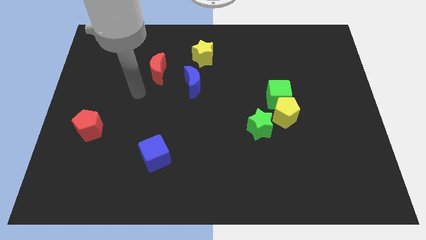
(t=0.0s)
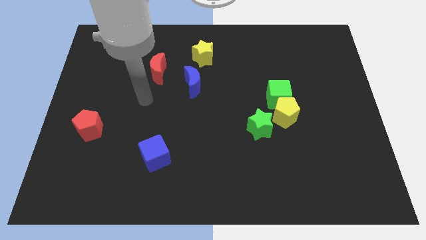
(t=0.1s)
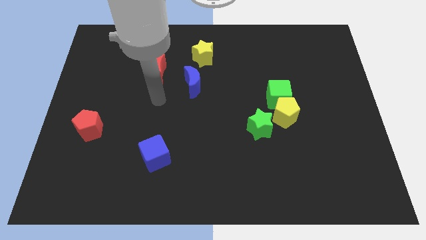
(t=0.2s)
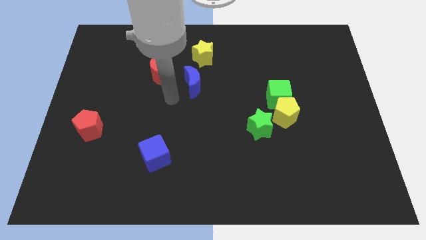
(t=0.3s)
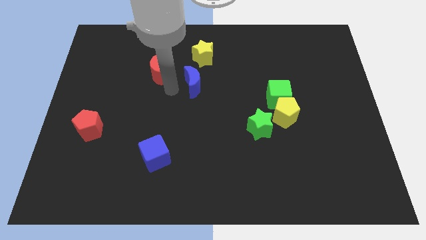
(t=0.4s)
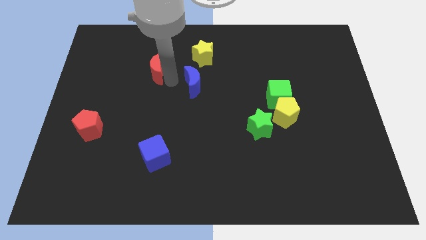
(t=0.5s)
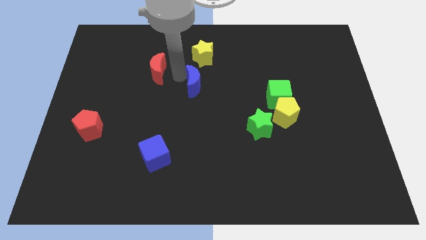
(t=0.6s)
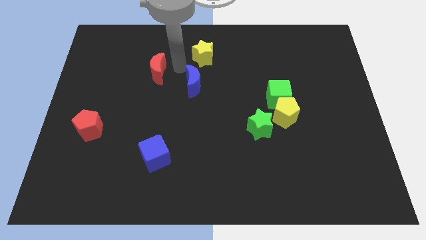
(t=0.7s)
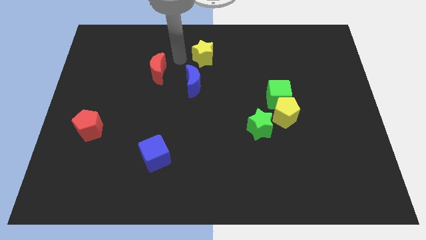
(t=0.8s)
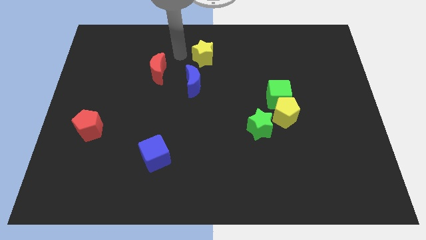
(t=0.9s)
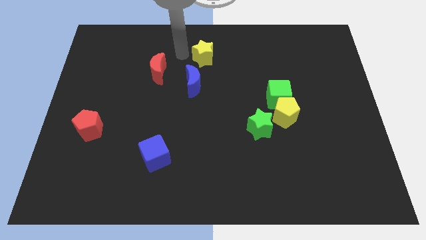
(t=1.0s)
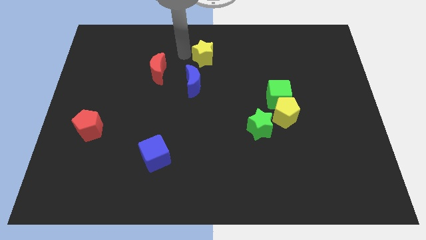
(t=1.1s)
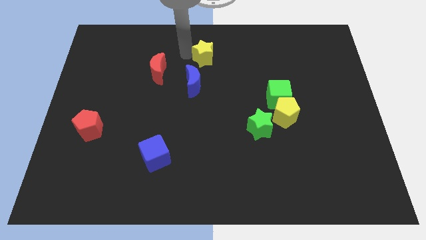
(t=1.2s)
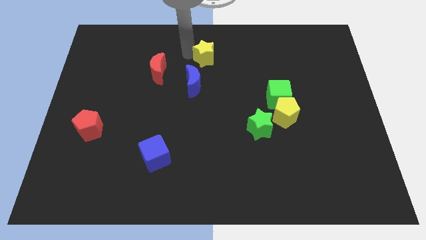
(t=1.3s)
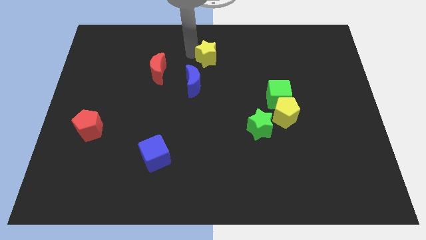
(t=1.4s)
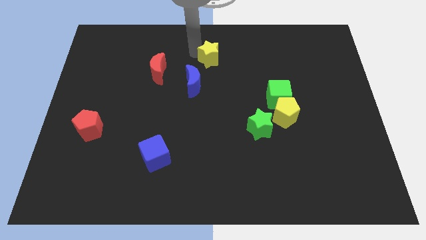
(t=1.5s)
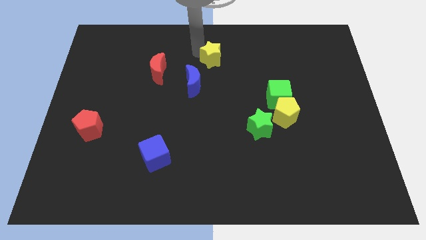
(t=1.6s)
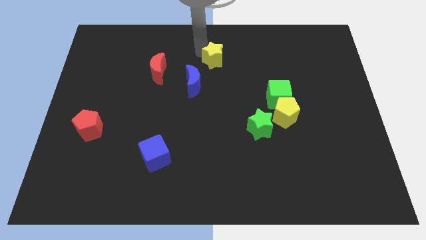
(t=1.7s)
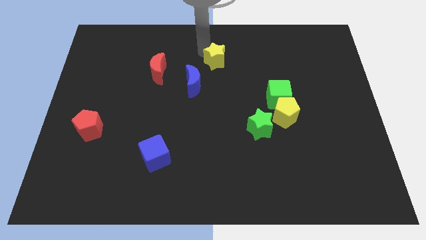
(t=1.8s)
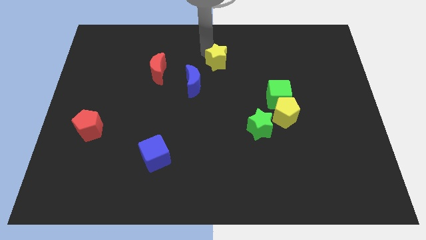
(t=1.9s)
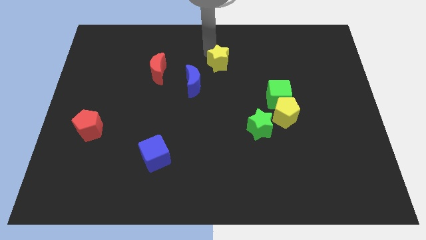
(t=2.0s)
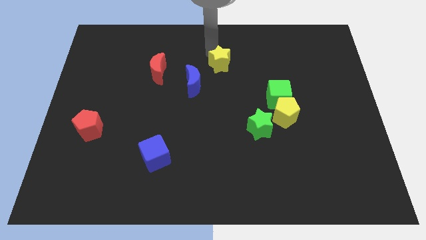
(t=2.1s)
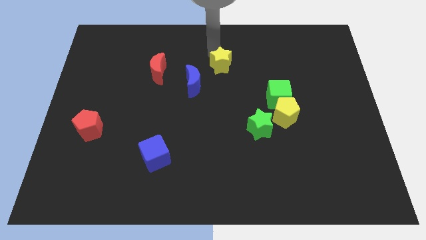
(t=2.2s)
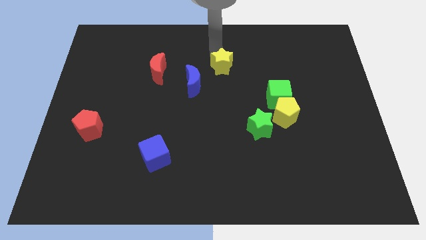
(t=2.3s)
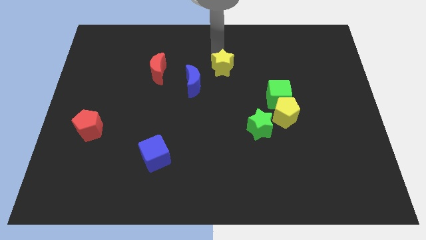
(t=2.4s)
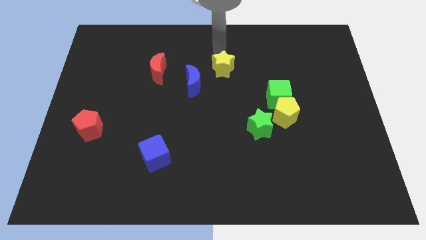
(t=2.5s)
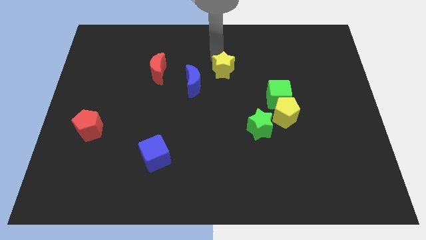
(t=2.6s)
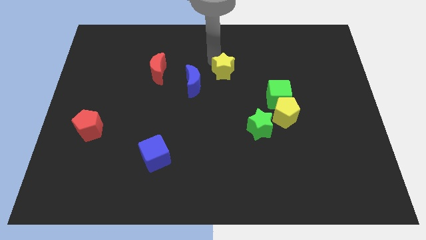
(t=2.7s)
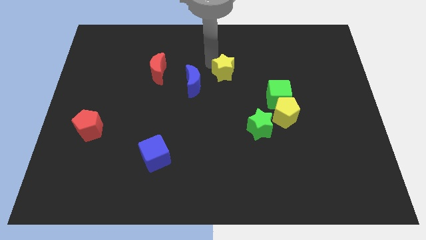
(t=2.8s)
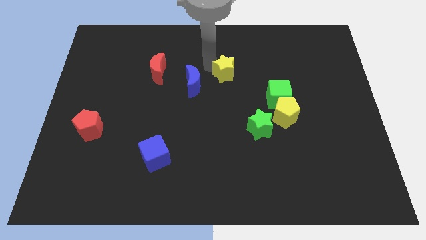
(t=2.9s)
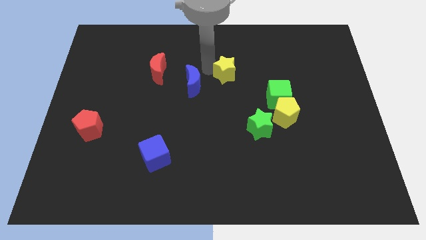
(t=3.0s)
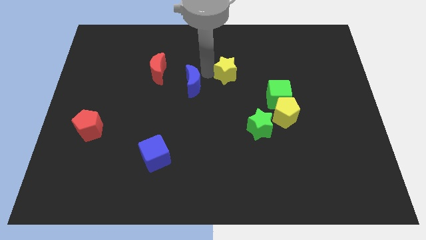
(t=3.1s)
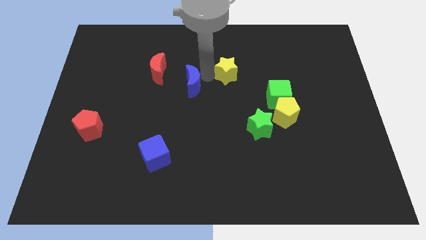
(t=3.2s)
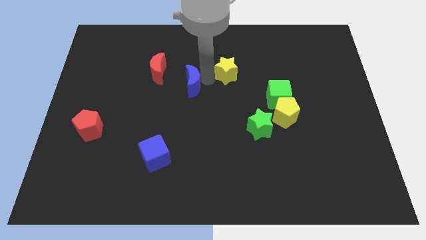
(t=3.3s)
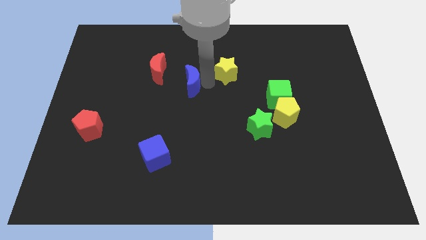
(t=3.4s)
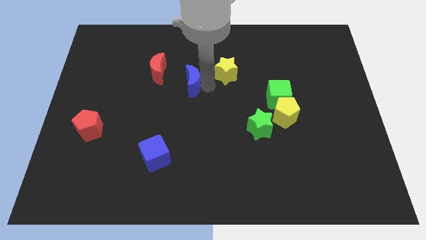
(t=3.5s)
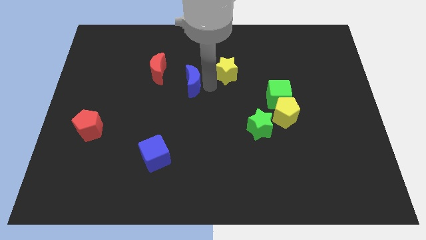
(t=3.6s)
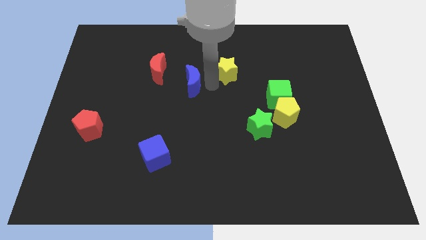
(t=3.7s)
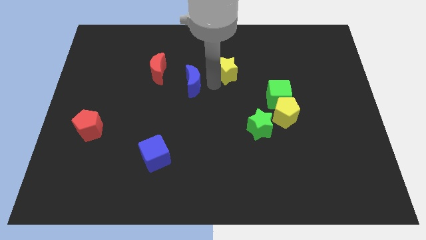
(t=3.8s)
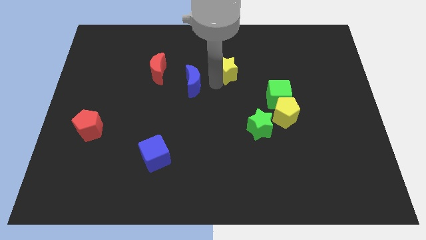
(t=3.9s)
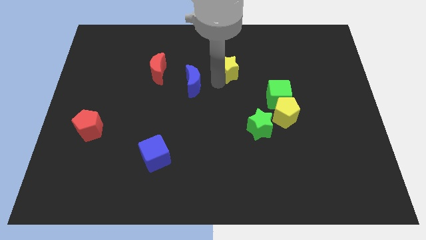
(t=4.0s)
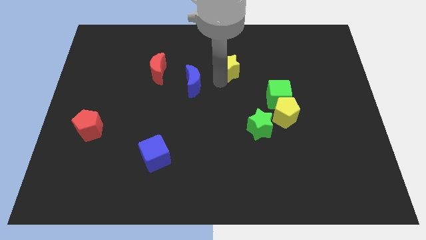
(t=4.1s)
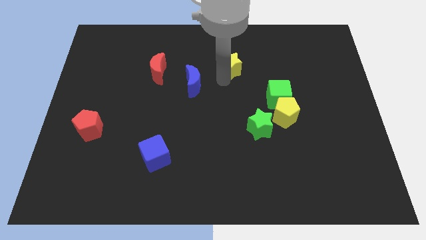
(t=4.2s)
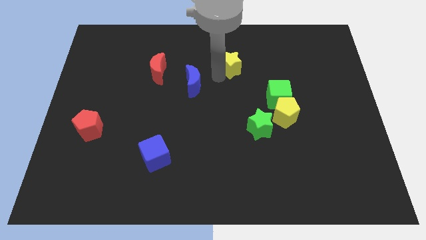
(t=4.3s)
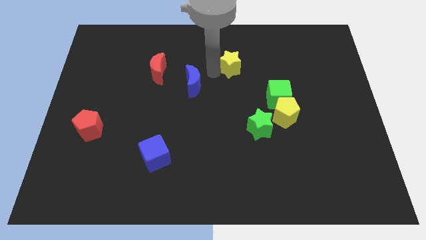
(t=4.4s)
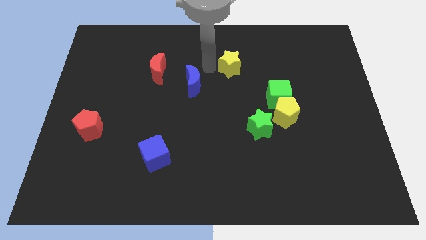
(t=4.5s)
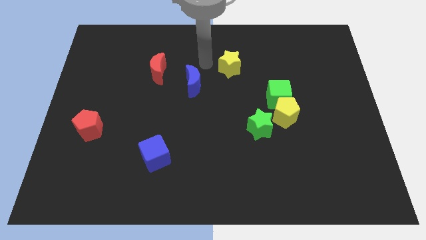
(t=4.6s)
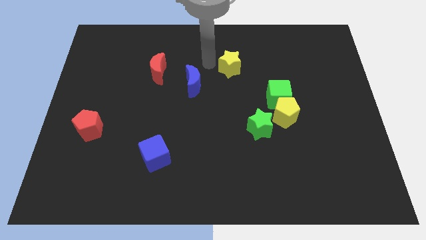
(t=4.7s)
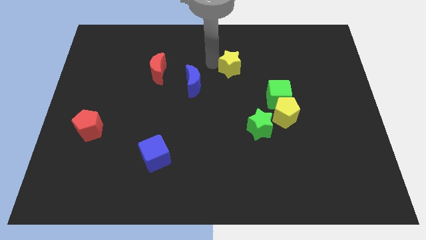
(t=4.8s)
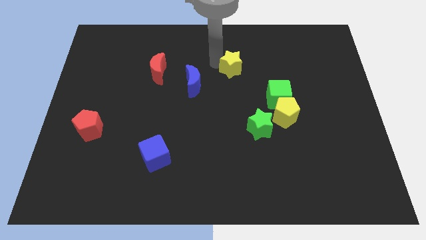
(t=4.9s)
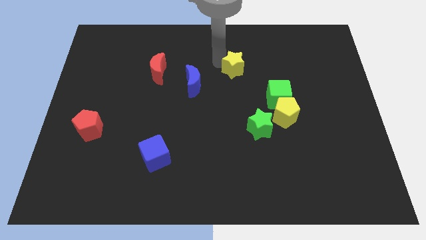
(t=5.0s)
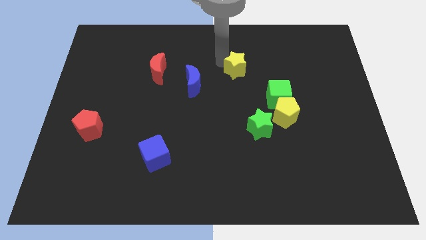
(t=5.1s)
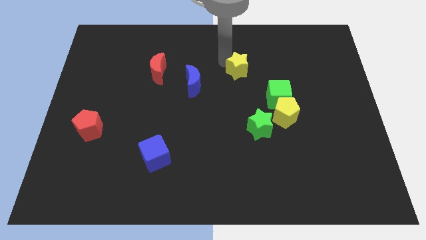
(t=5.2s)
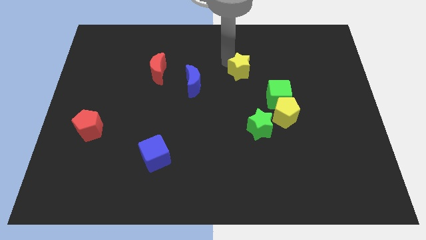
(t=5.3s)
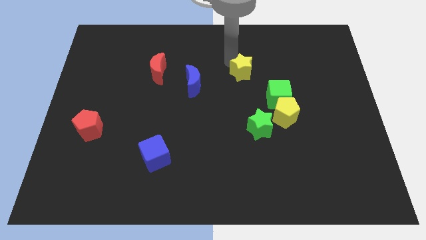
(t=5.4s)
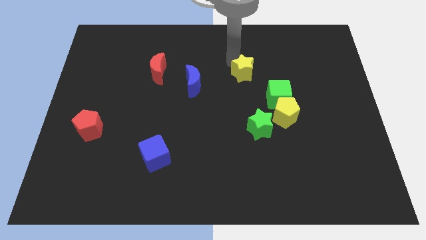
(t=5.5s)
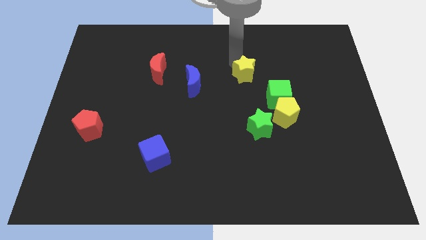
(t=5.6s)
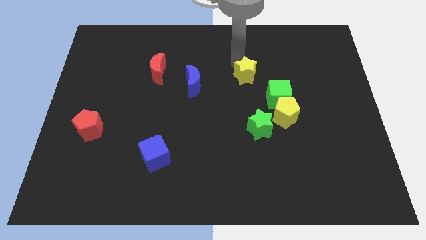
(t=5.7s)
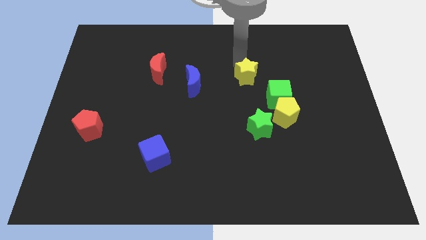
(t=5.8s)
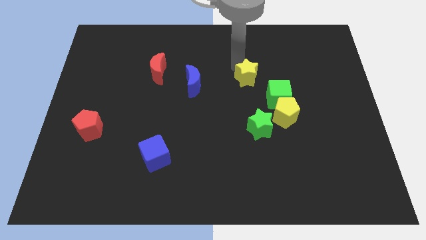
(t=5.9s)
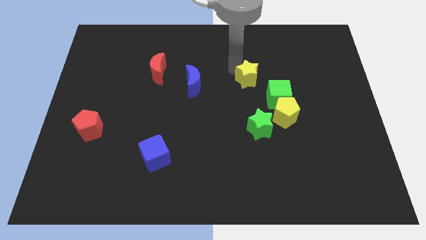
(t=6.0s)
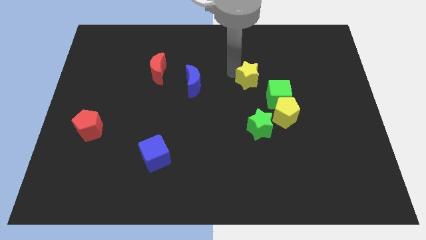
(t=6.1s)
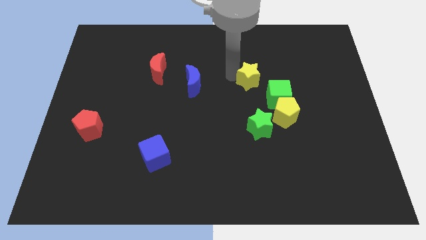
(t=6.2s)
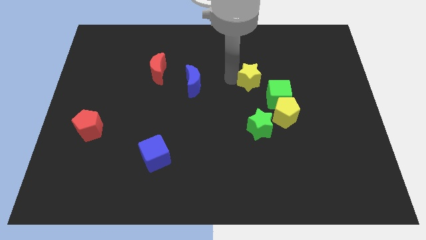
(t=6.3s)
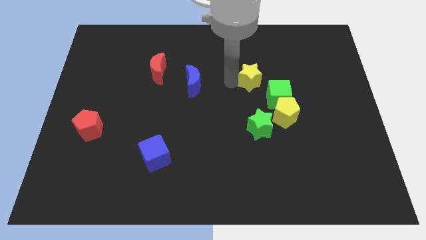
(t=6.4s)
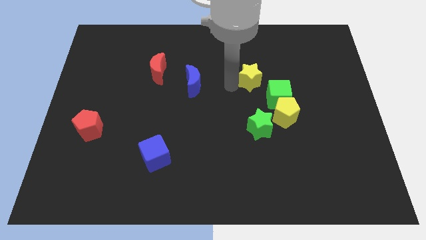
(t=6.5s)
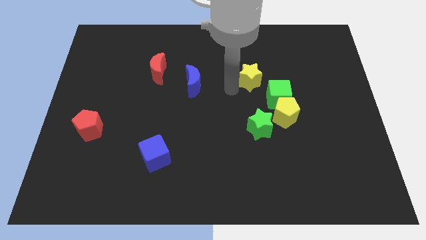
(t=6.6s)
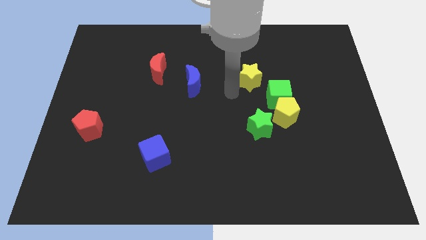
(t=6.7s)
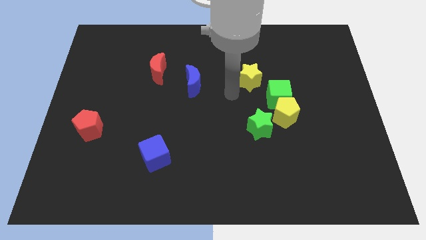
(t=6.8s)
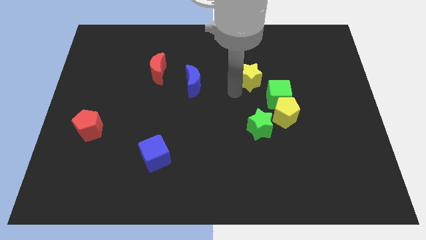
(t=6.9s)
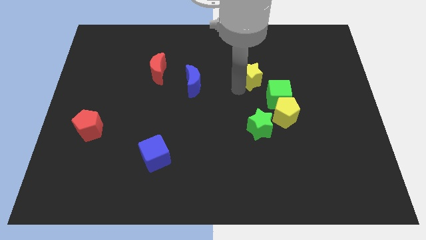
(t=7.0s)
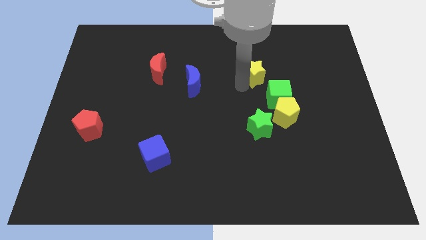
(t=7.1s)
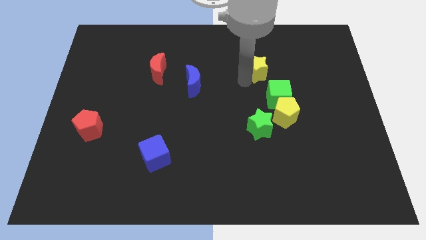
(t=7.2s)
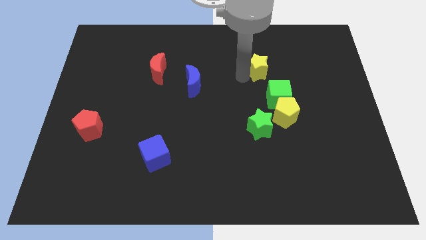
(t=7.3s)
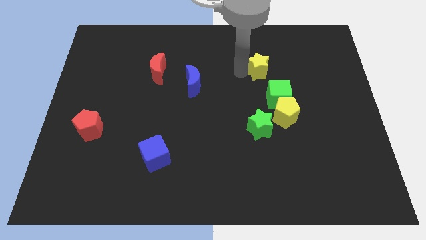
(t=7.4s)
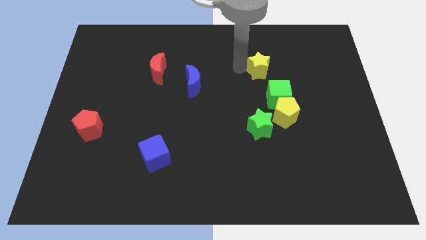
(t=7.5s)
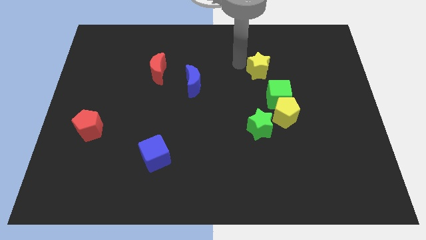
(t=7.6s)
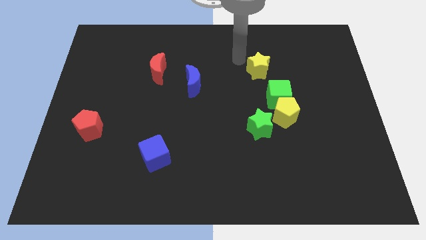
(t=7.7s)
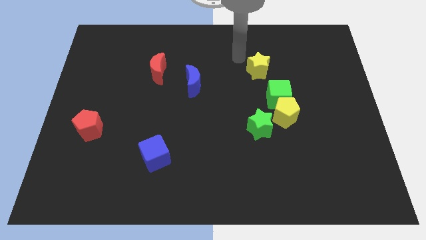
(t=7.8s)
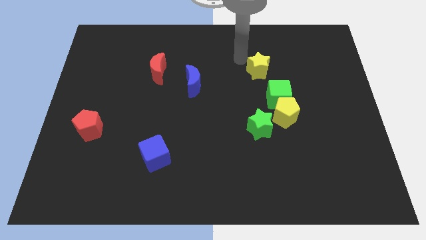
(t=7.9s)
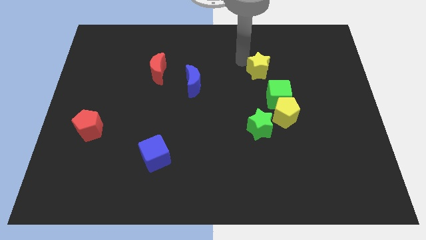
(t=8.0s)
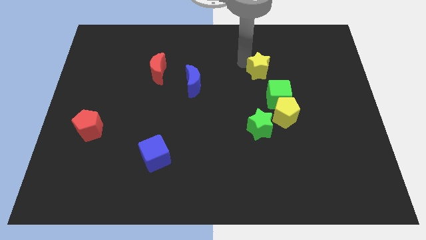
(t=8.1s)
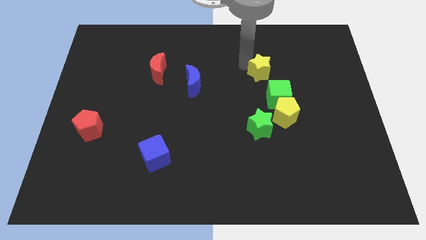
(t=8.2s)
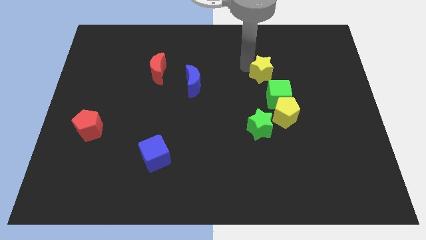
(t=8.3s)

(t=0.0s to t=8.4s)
move the yellow star above the yellow pentagon
